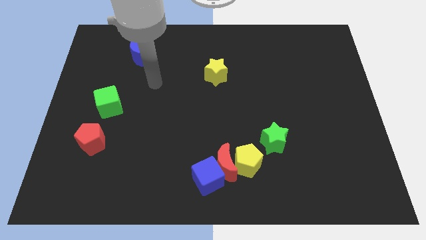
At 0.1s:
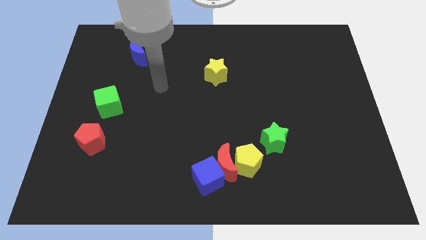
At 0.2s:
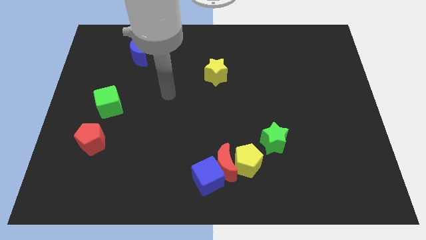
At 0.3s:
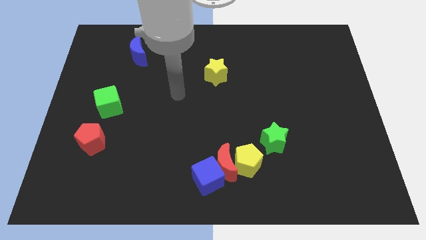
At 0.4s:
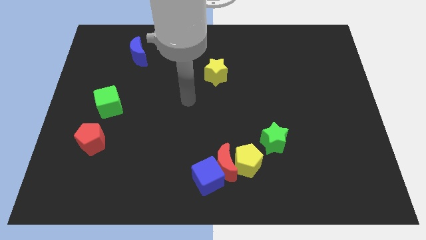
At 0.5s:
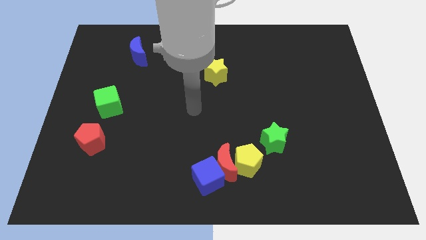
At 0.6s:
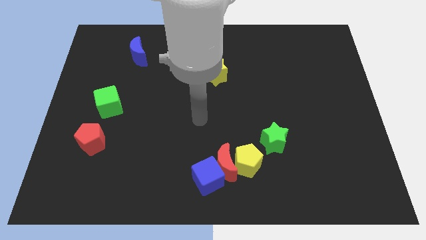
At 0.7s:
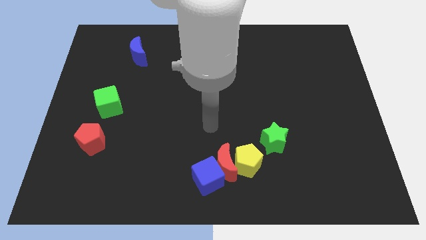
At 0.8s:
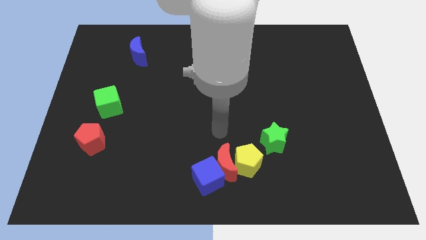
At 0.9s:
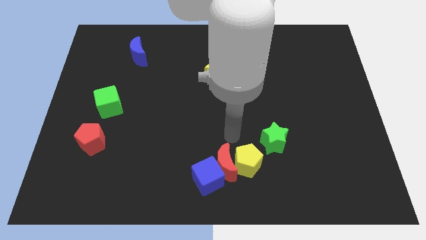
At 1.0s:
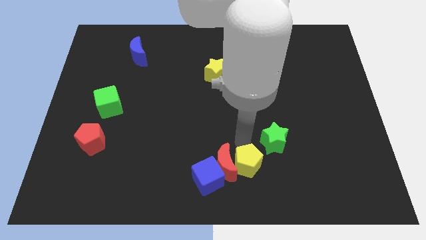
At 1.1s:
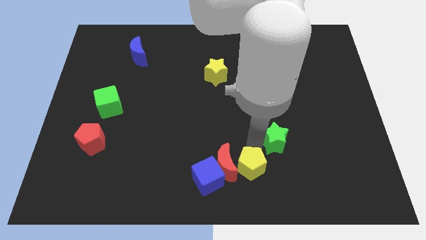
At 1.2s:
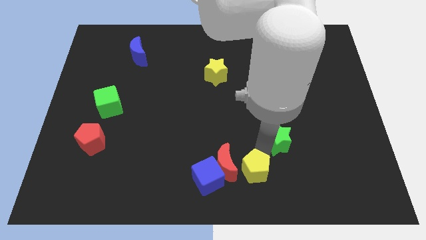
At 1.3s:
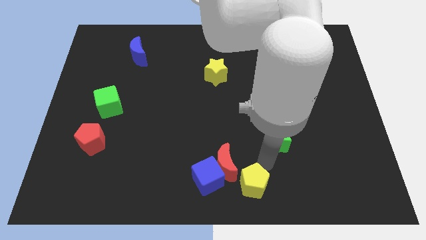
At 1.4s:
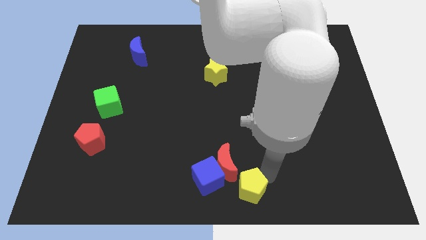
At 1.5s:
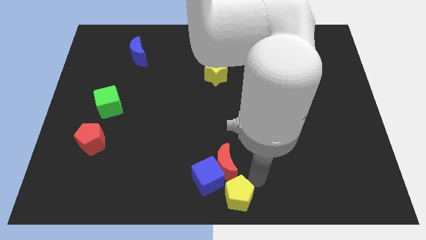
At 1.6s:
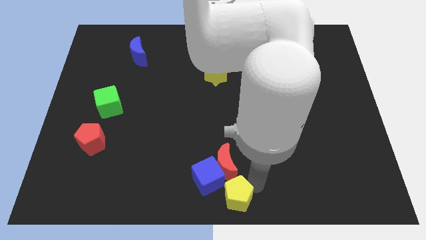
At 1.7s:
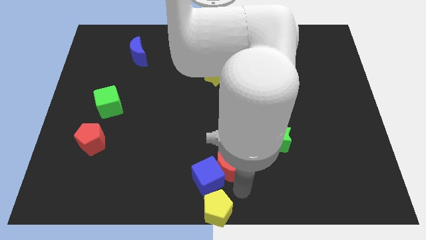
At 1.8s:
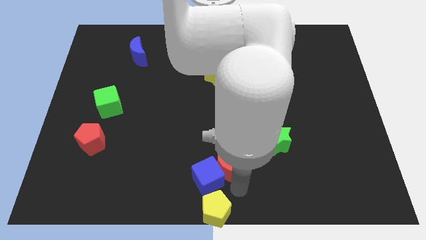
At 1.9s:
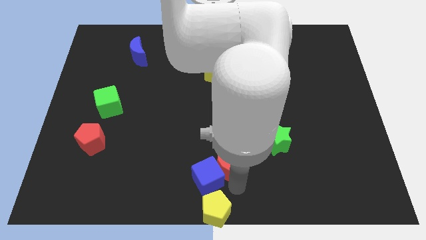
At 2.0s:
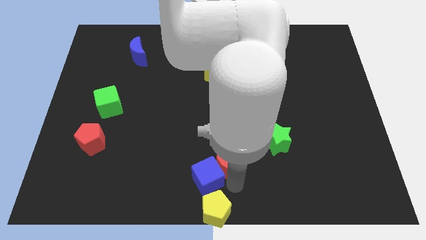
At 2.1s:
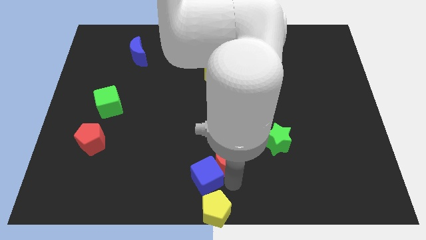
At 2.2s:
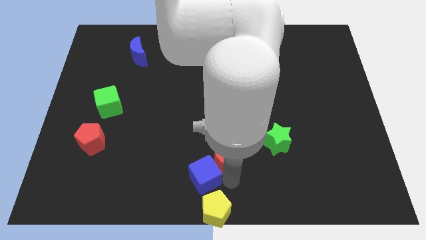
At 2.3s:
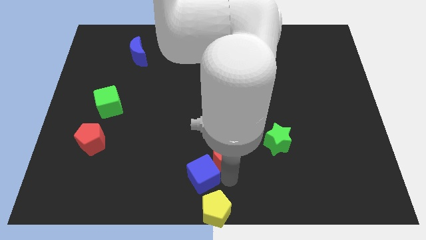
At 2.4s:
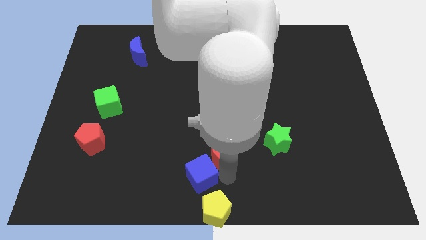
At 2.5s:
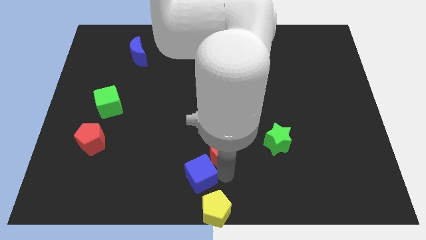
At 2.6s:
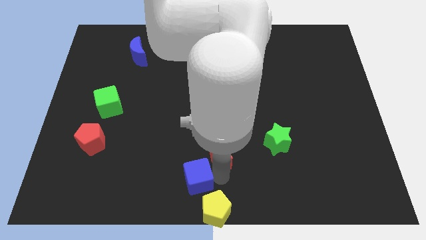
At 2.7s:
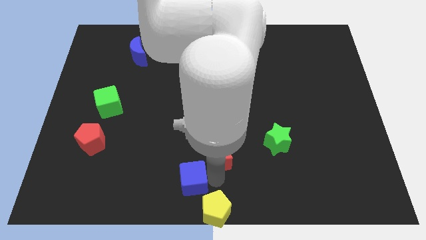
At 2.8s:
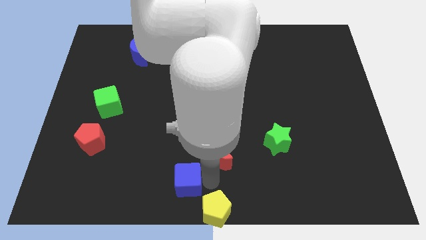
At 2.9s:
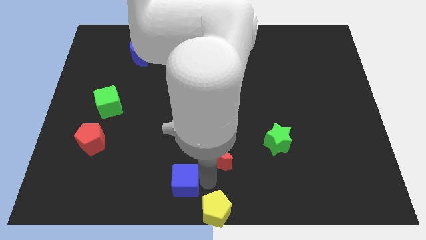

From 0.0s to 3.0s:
separate the red moon from the blue cube and yellow pentagon

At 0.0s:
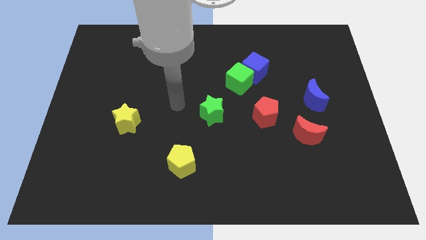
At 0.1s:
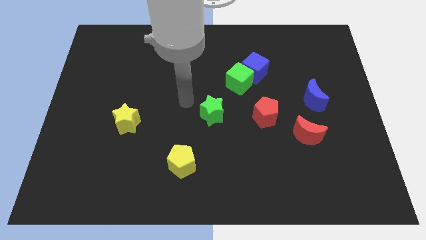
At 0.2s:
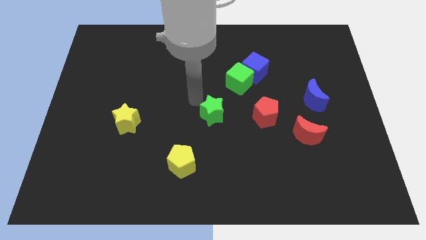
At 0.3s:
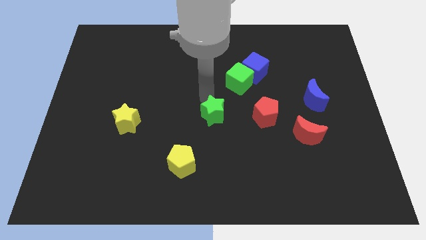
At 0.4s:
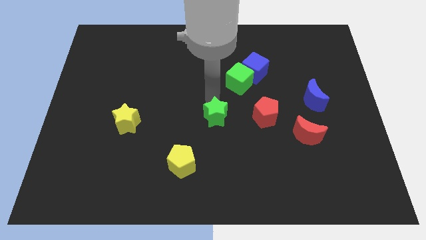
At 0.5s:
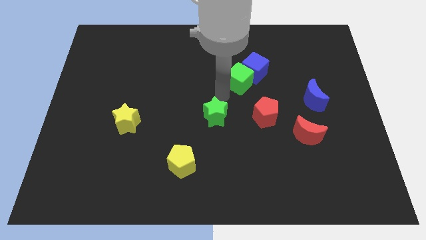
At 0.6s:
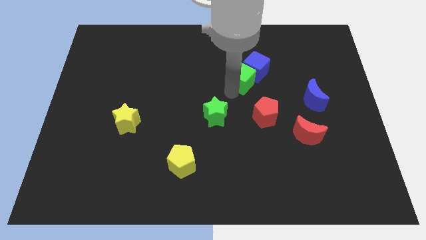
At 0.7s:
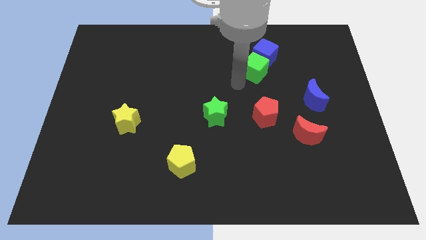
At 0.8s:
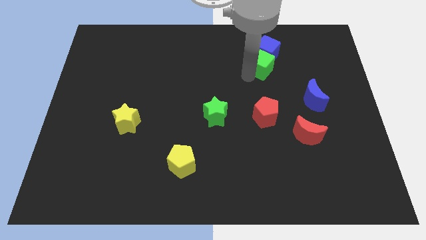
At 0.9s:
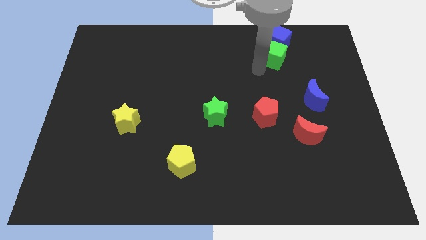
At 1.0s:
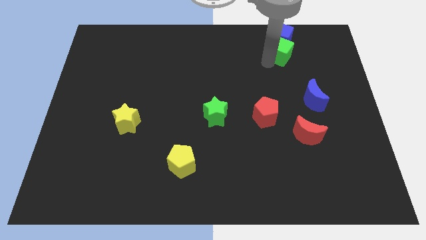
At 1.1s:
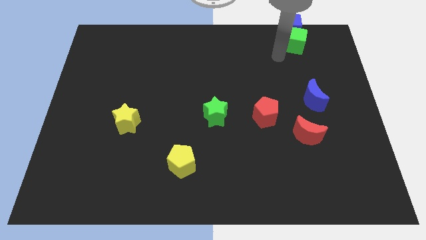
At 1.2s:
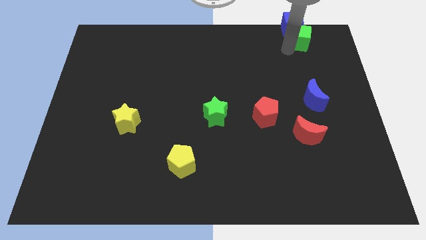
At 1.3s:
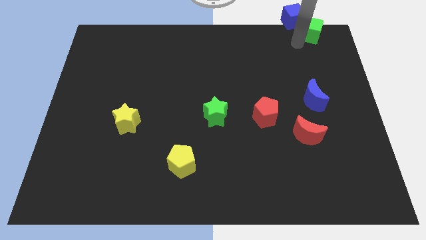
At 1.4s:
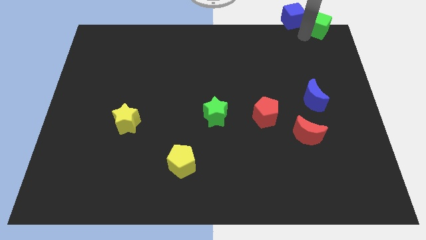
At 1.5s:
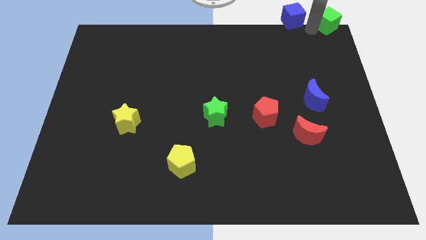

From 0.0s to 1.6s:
move the blue cube away from the green cube

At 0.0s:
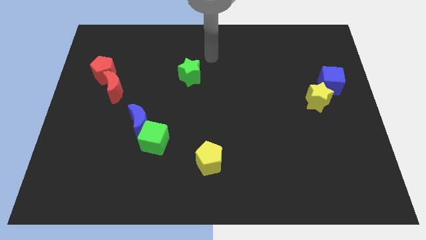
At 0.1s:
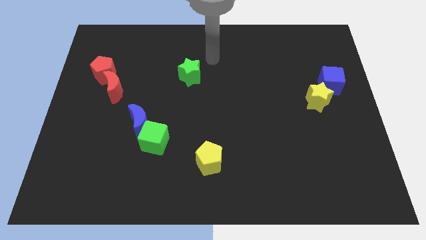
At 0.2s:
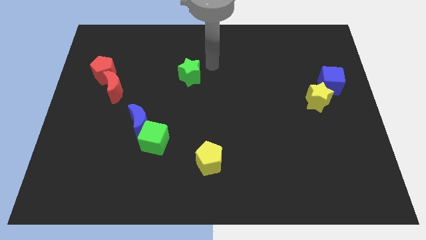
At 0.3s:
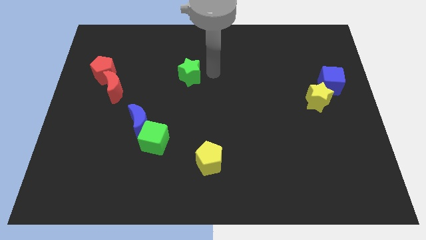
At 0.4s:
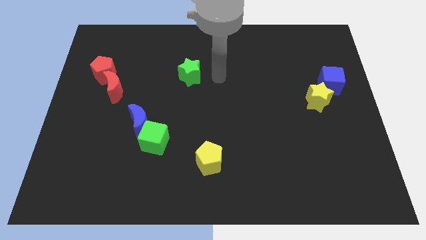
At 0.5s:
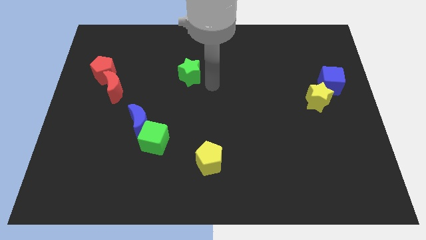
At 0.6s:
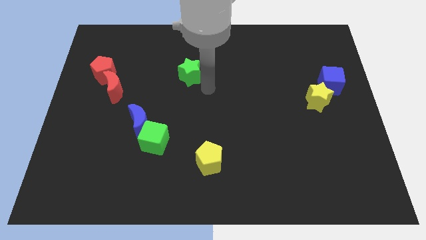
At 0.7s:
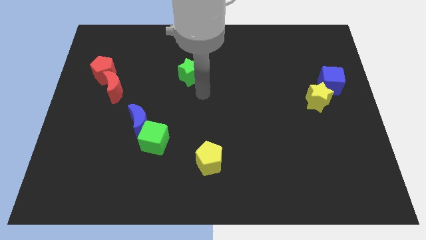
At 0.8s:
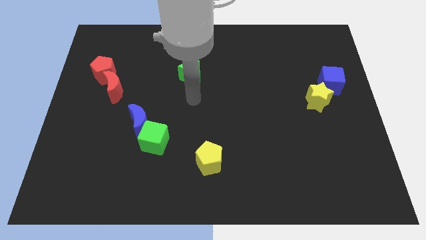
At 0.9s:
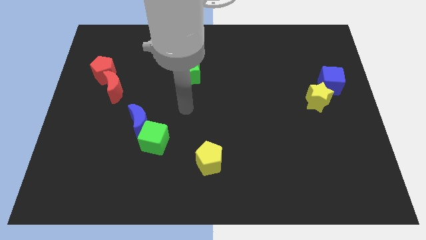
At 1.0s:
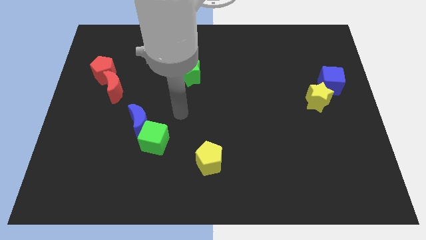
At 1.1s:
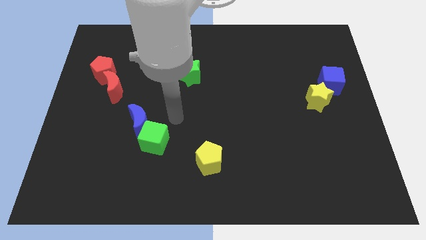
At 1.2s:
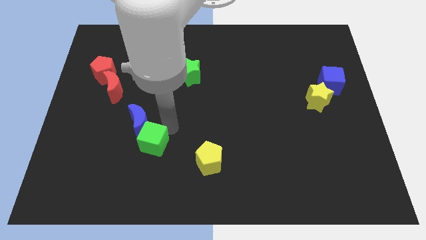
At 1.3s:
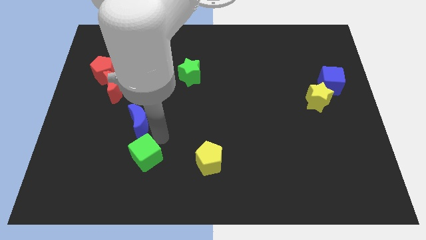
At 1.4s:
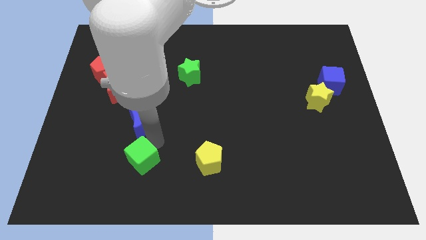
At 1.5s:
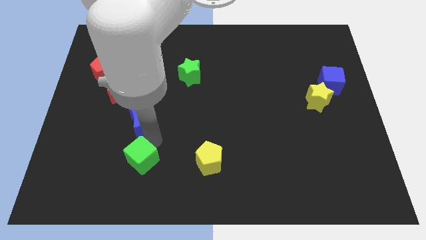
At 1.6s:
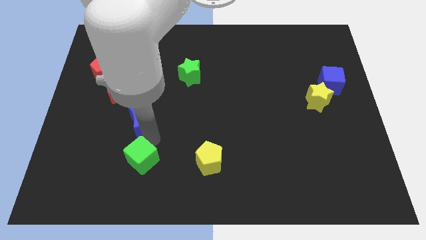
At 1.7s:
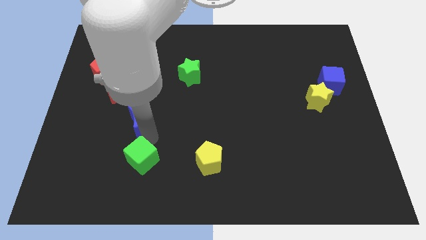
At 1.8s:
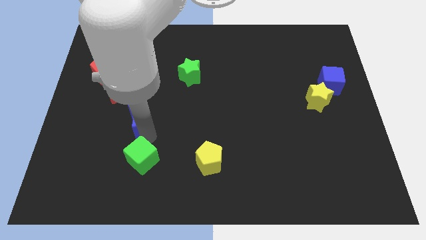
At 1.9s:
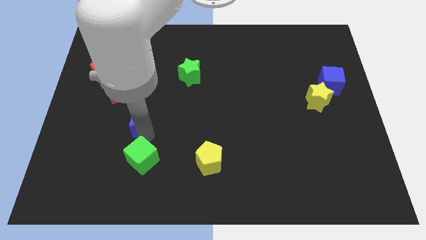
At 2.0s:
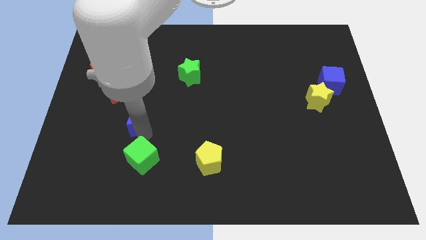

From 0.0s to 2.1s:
separate the blue moon from the green cube

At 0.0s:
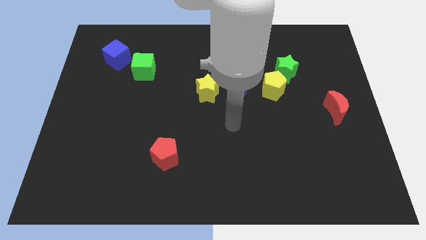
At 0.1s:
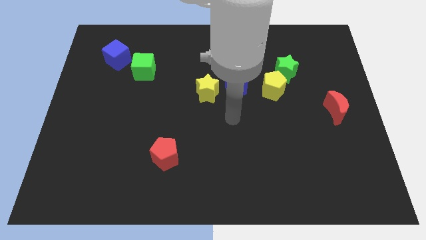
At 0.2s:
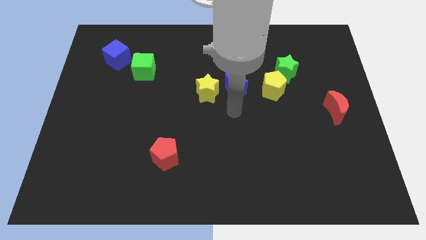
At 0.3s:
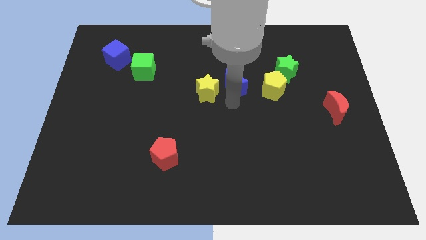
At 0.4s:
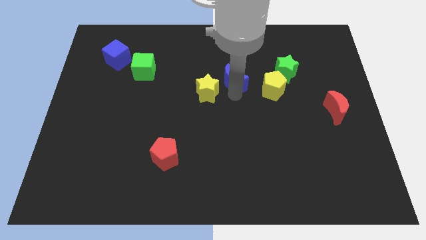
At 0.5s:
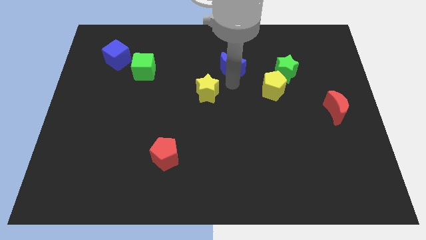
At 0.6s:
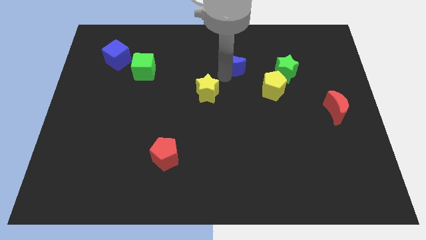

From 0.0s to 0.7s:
separate the yellow star from the blue moon

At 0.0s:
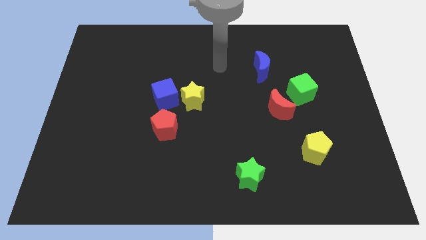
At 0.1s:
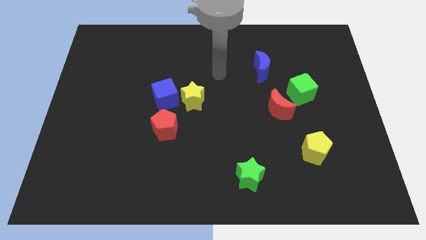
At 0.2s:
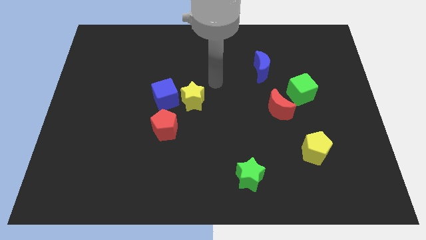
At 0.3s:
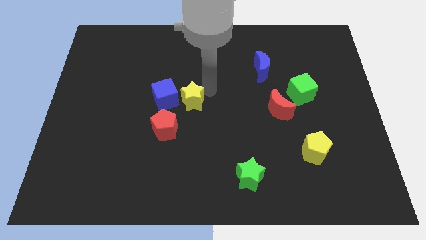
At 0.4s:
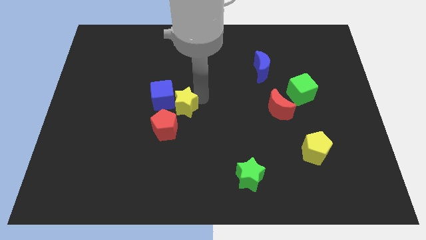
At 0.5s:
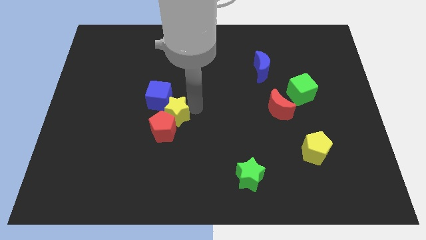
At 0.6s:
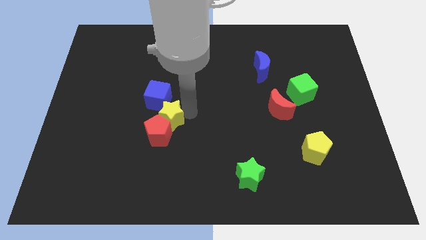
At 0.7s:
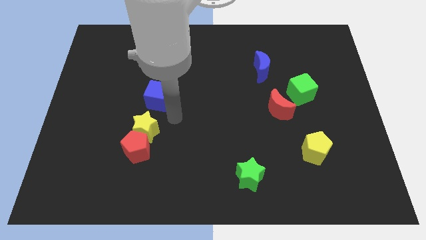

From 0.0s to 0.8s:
pull the blue cube apart from the yellow star and red pentagon

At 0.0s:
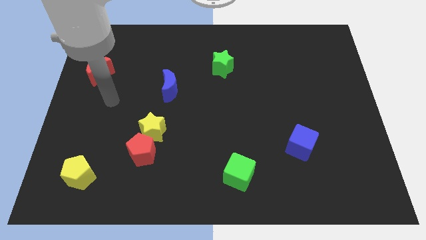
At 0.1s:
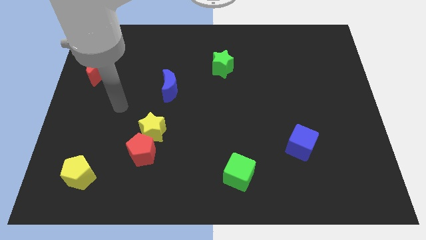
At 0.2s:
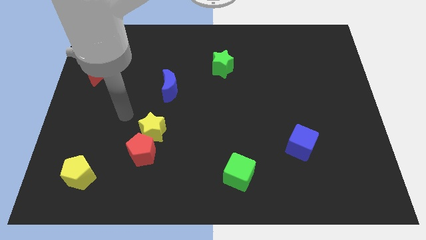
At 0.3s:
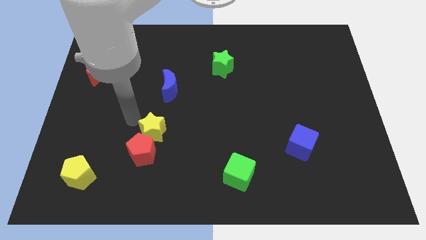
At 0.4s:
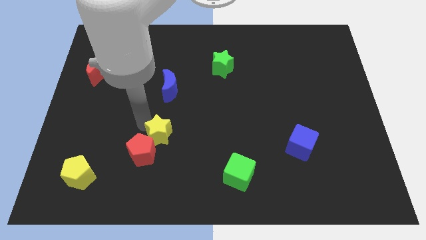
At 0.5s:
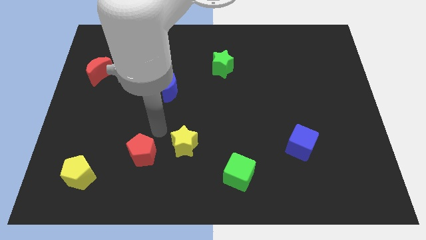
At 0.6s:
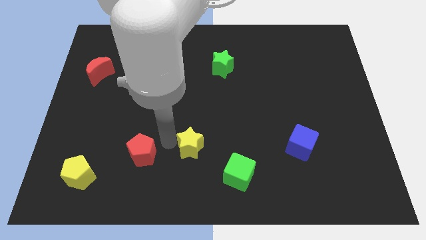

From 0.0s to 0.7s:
pull the red pentagon apart from the yellow star

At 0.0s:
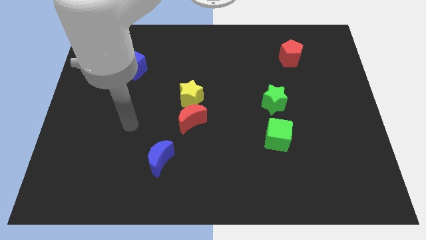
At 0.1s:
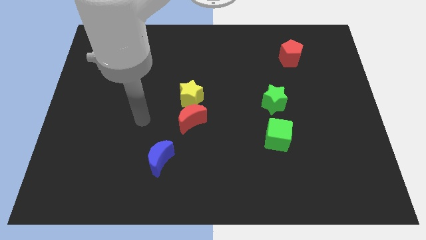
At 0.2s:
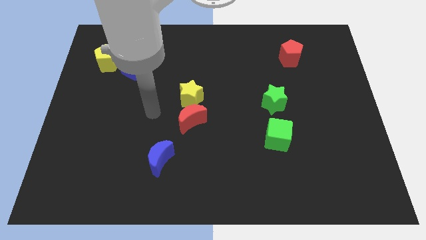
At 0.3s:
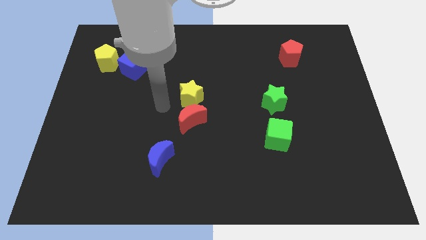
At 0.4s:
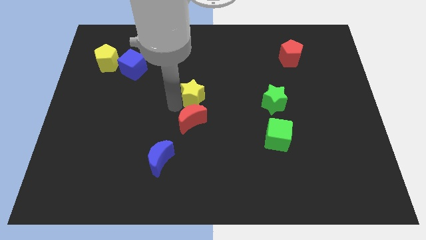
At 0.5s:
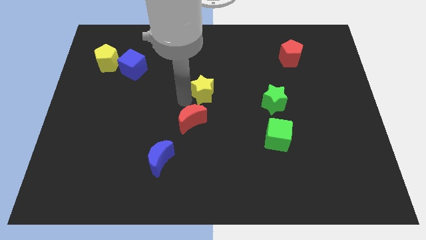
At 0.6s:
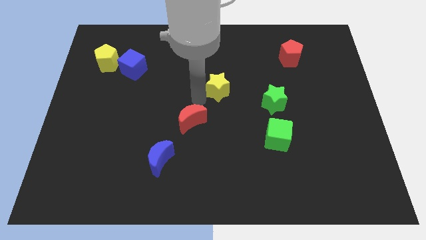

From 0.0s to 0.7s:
separate the red moon from the yellow star
